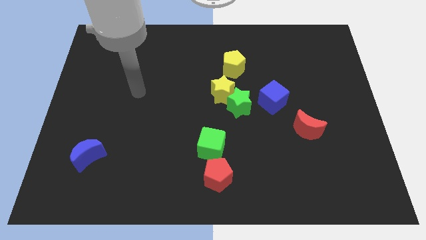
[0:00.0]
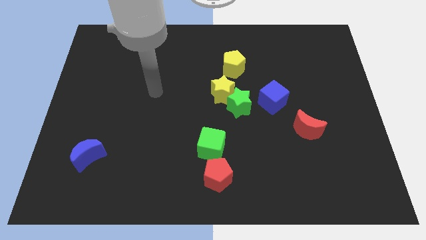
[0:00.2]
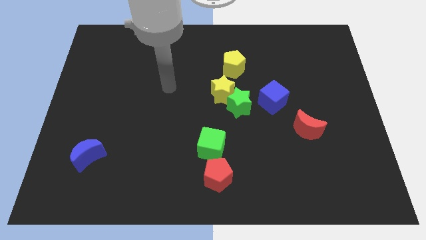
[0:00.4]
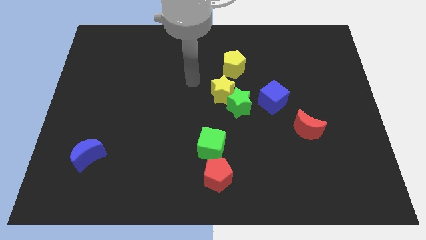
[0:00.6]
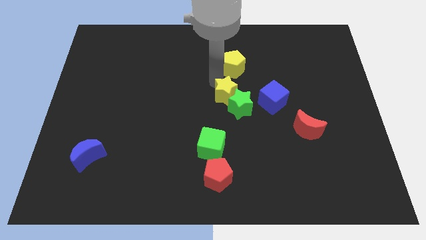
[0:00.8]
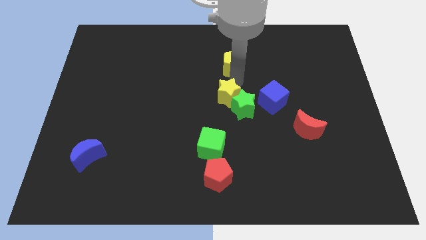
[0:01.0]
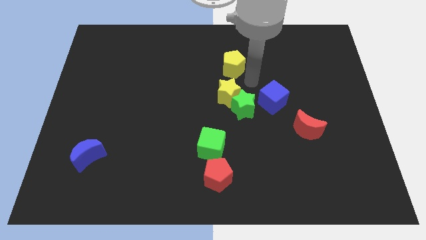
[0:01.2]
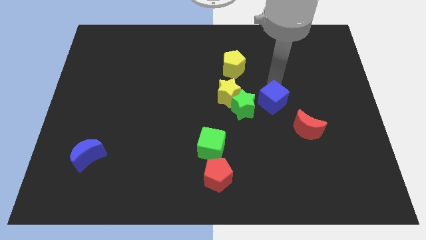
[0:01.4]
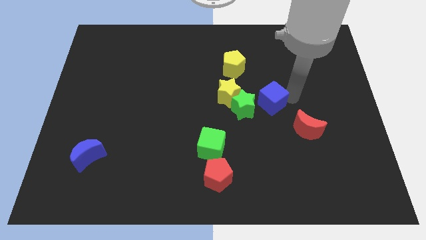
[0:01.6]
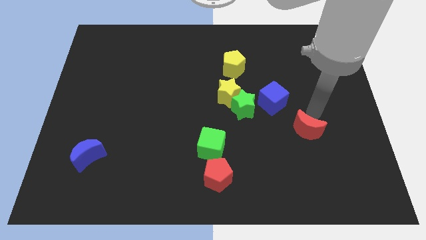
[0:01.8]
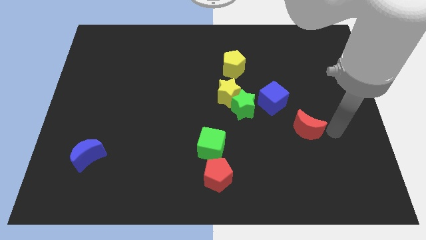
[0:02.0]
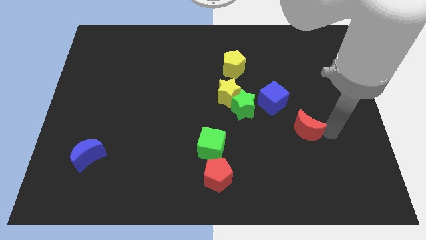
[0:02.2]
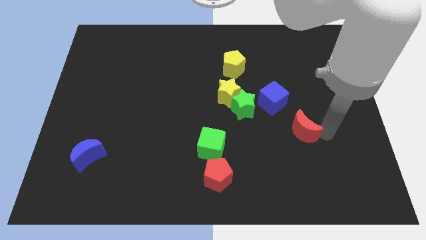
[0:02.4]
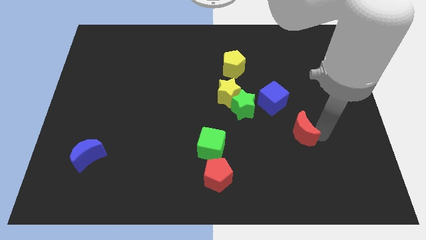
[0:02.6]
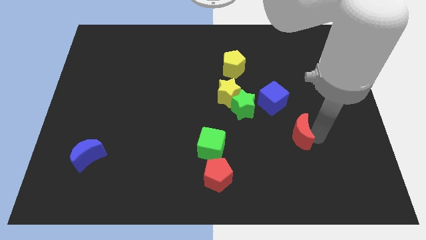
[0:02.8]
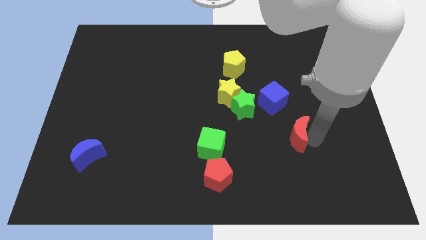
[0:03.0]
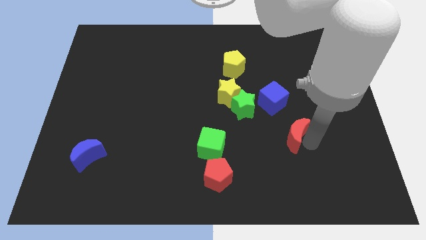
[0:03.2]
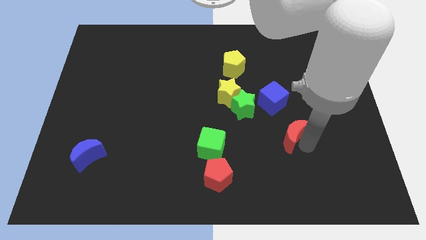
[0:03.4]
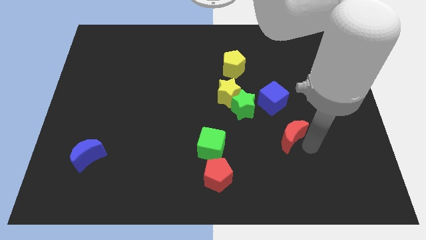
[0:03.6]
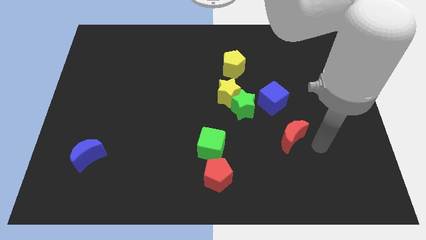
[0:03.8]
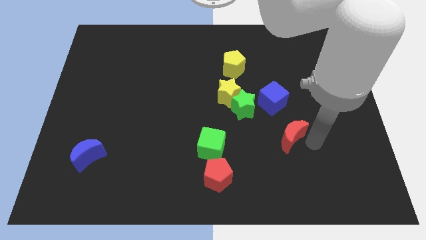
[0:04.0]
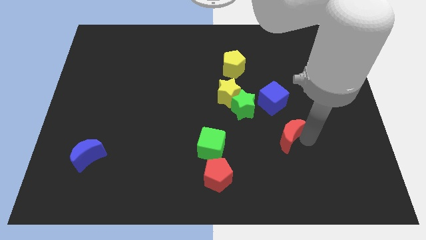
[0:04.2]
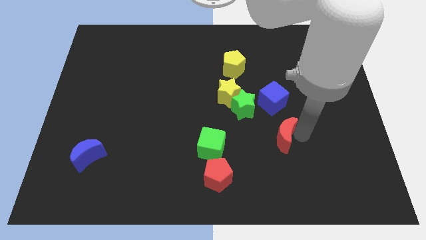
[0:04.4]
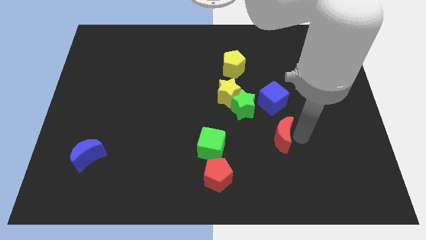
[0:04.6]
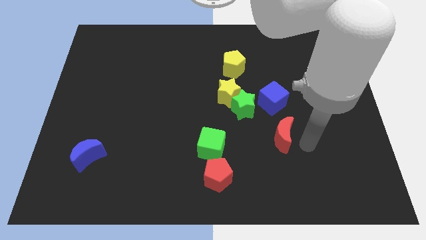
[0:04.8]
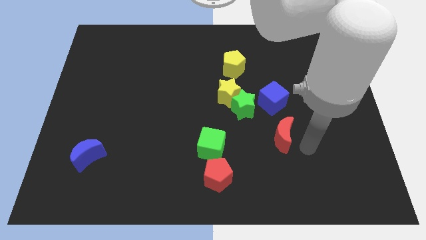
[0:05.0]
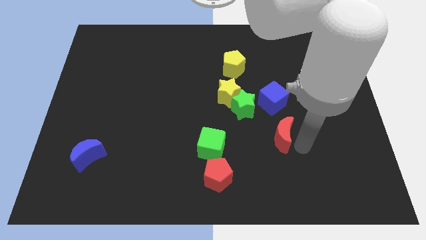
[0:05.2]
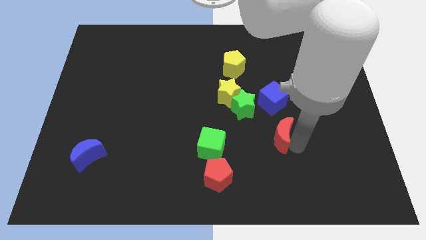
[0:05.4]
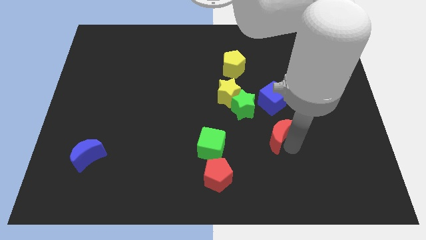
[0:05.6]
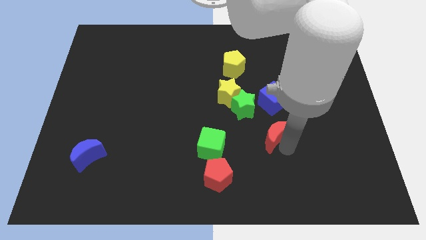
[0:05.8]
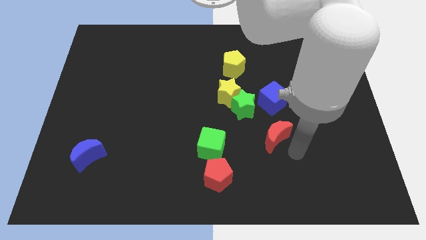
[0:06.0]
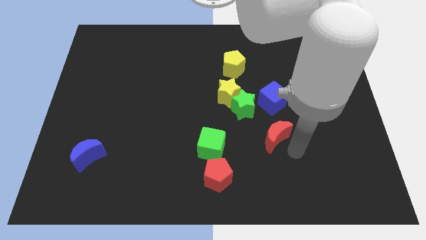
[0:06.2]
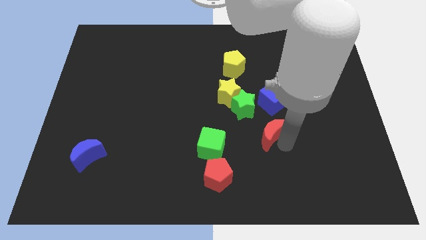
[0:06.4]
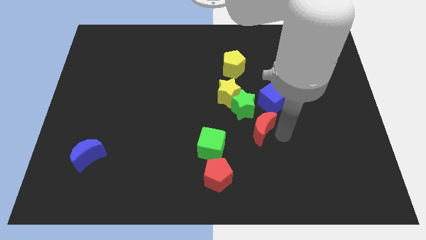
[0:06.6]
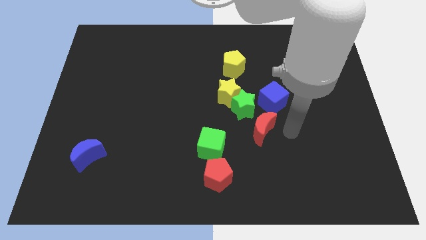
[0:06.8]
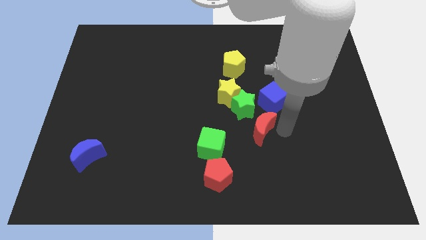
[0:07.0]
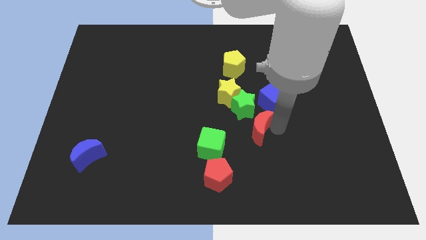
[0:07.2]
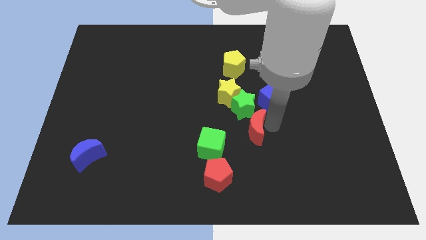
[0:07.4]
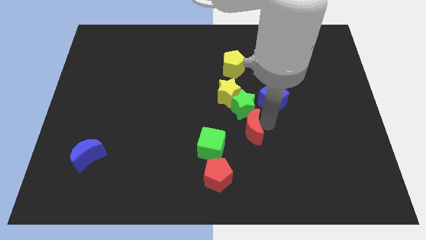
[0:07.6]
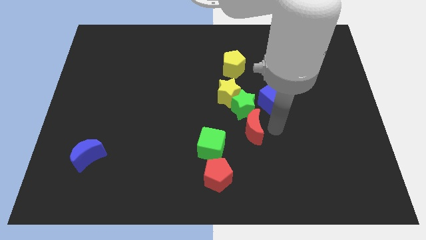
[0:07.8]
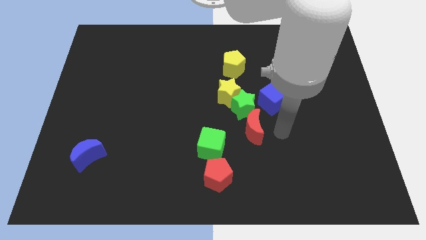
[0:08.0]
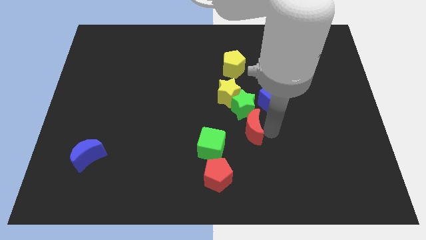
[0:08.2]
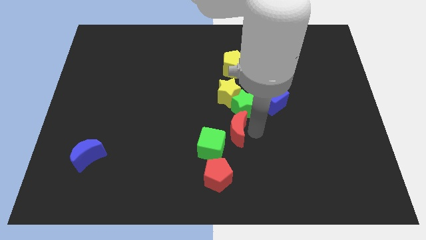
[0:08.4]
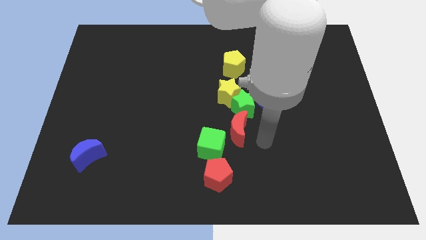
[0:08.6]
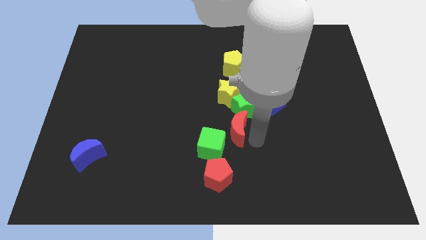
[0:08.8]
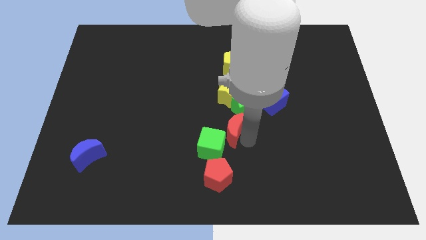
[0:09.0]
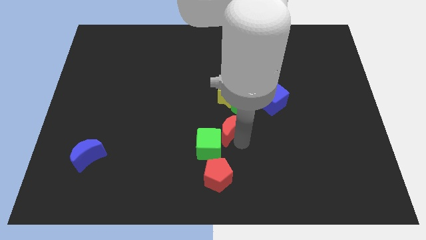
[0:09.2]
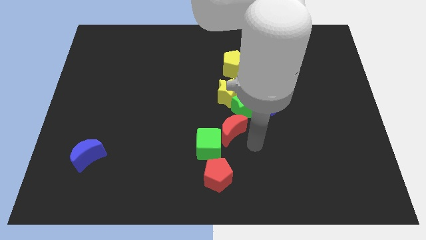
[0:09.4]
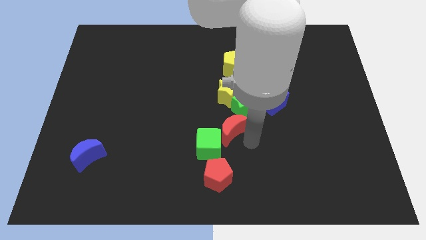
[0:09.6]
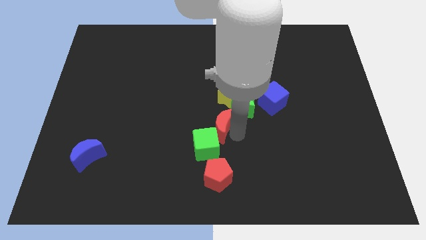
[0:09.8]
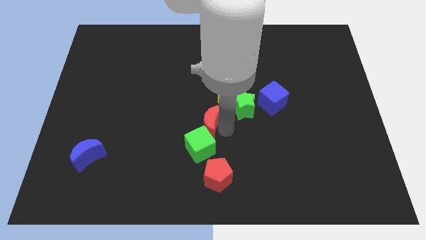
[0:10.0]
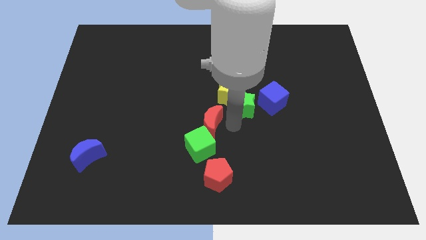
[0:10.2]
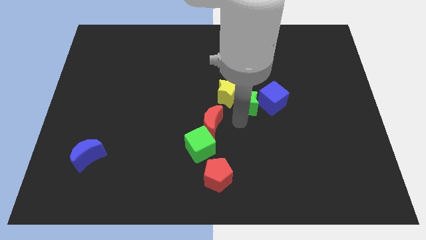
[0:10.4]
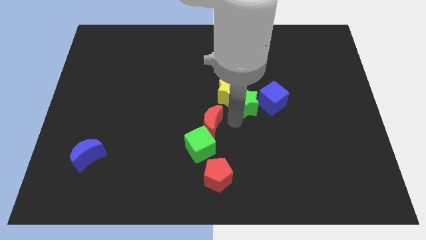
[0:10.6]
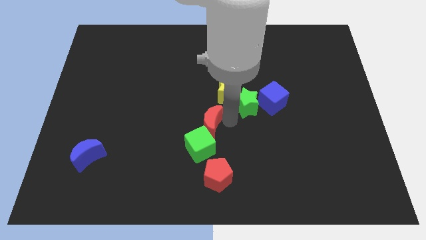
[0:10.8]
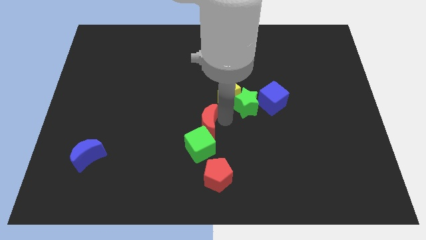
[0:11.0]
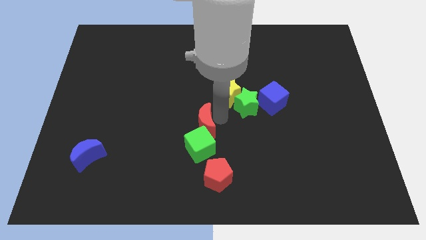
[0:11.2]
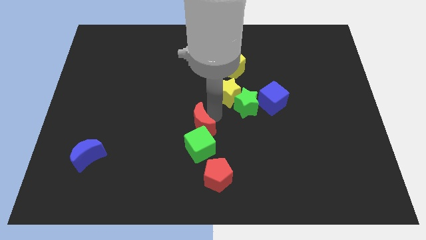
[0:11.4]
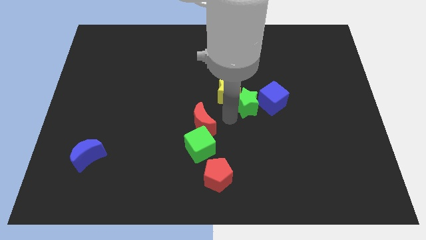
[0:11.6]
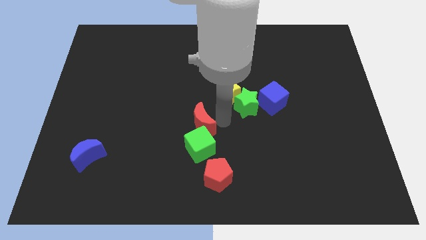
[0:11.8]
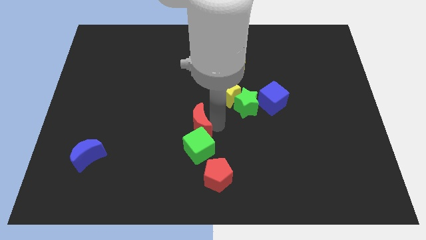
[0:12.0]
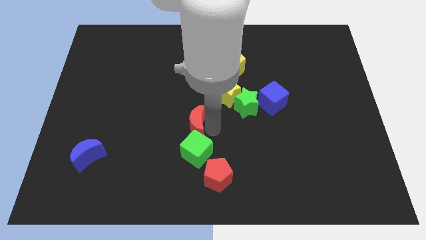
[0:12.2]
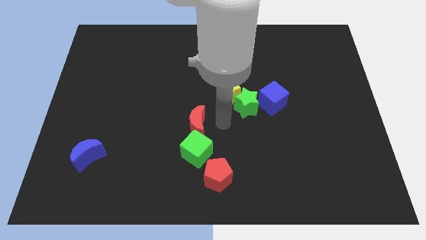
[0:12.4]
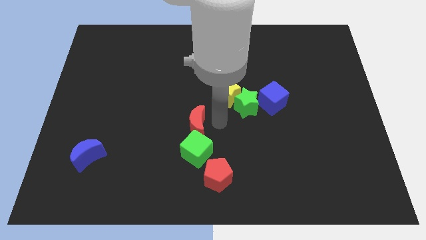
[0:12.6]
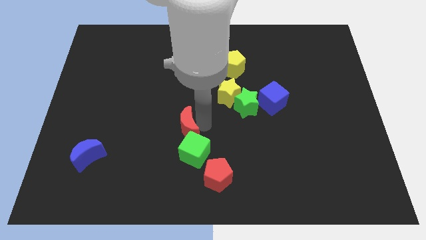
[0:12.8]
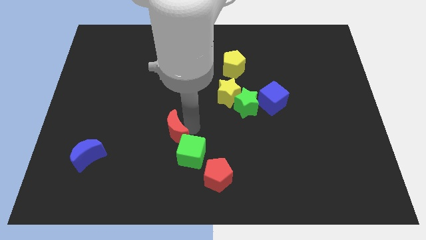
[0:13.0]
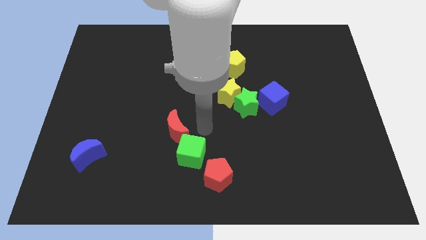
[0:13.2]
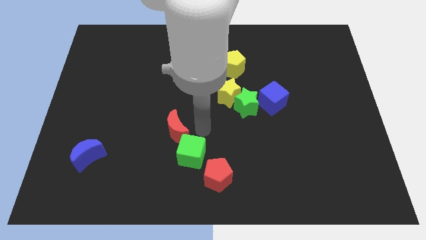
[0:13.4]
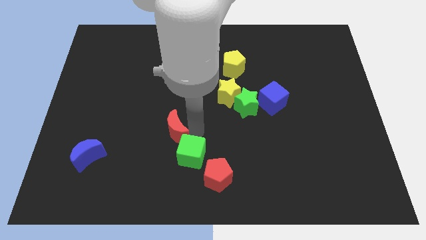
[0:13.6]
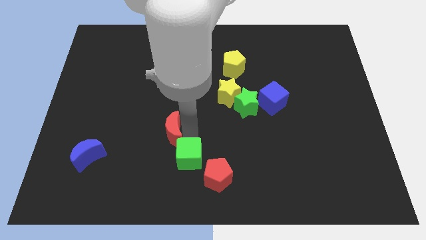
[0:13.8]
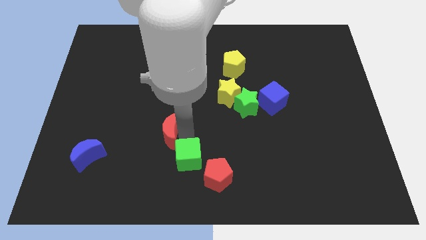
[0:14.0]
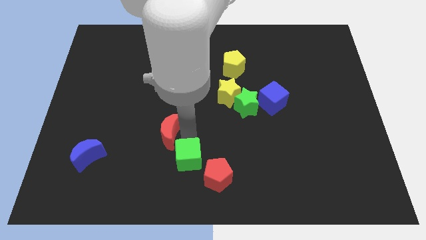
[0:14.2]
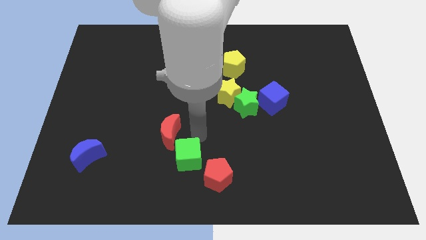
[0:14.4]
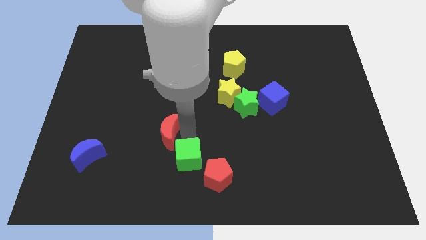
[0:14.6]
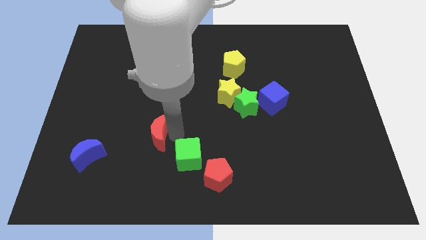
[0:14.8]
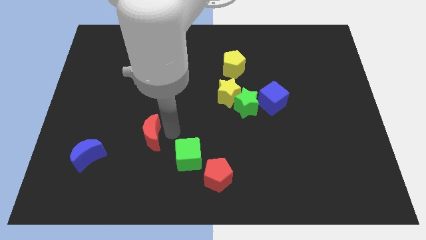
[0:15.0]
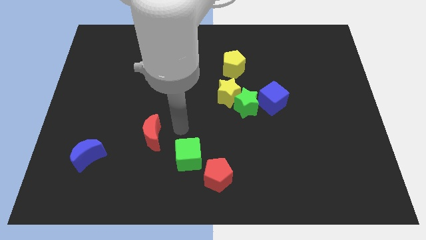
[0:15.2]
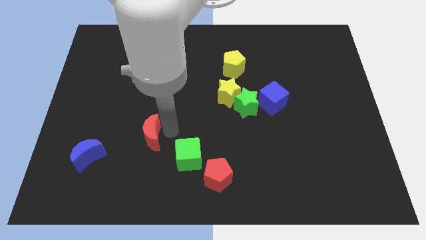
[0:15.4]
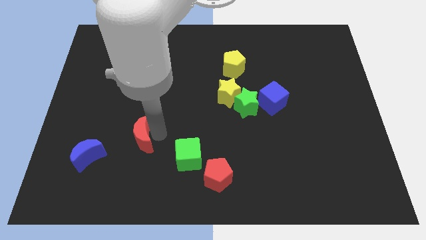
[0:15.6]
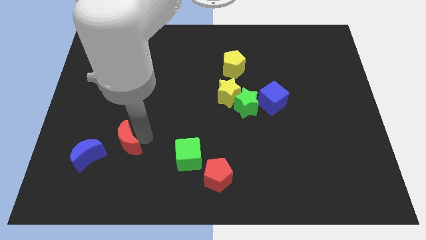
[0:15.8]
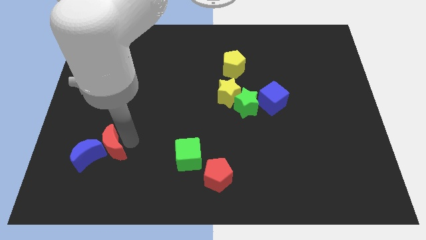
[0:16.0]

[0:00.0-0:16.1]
move the red moon towards the blue moon
